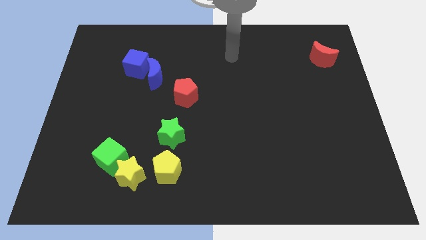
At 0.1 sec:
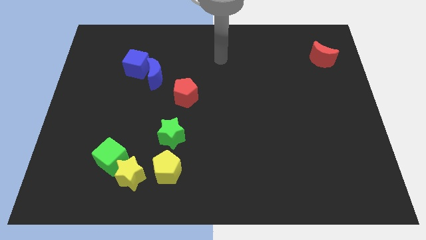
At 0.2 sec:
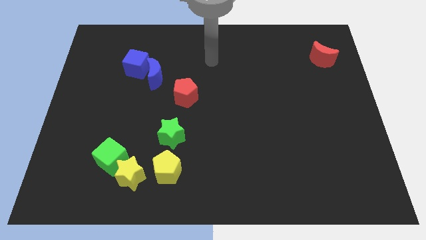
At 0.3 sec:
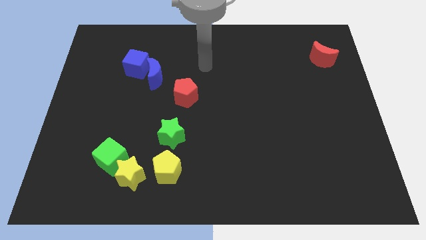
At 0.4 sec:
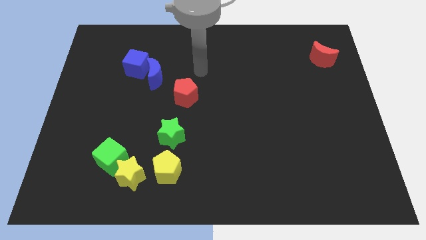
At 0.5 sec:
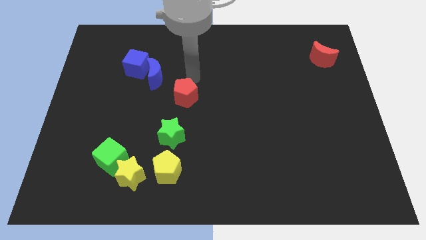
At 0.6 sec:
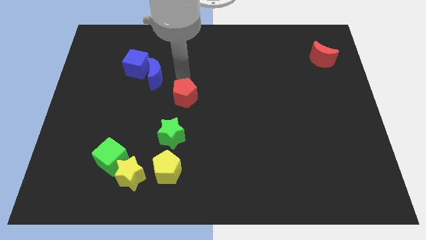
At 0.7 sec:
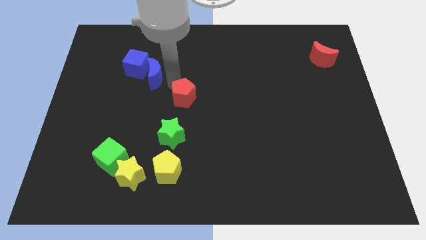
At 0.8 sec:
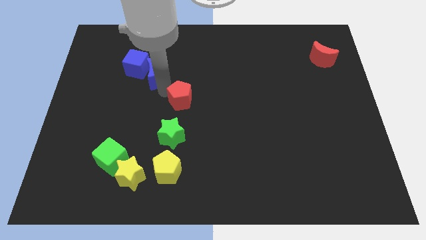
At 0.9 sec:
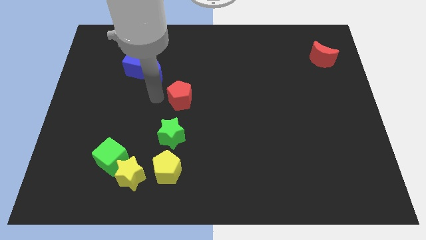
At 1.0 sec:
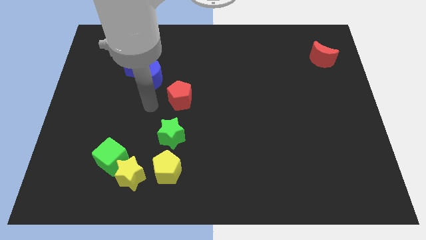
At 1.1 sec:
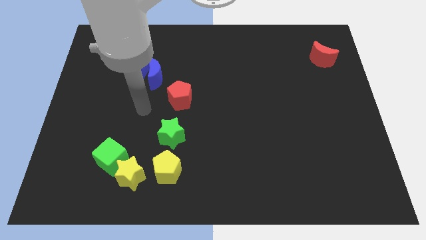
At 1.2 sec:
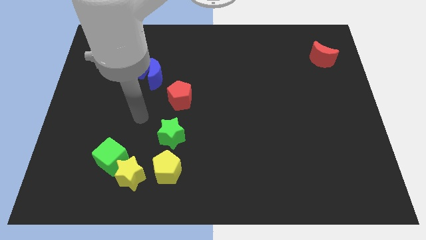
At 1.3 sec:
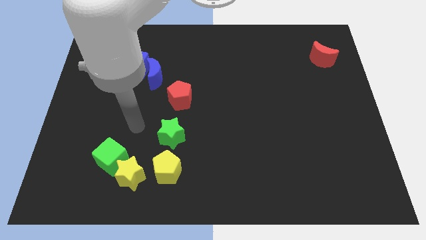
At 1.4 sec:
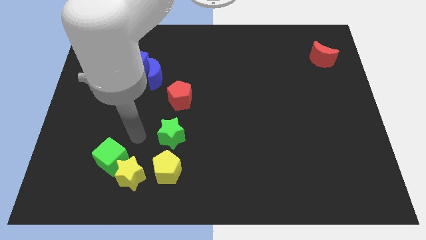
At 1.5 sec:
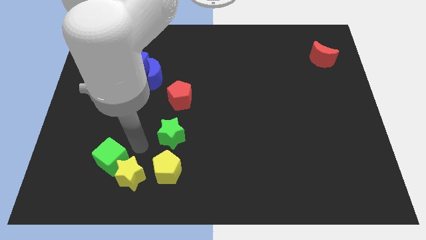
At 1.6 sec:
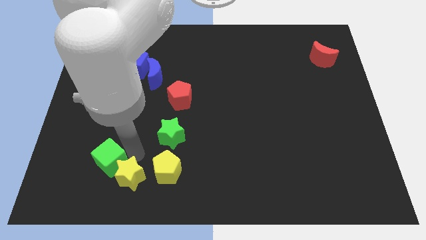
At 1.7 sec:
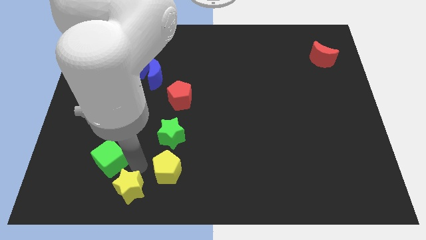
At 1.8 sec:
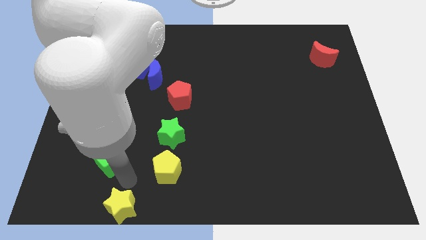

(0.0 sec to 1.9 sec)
move the green cube away from the yellow star

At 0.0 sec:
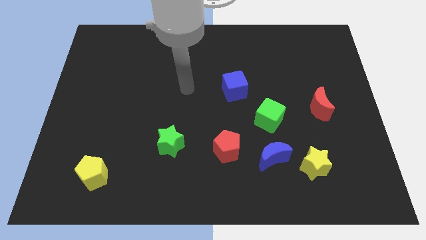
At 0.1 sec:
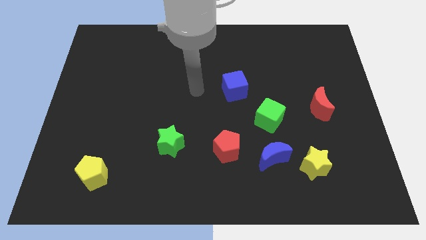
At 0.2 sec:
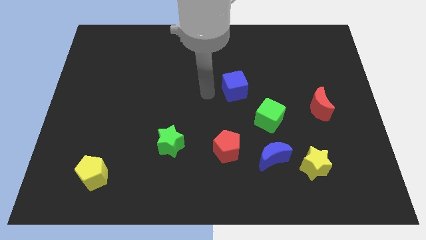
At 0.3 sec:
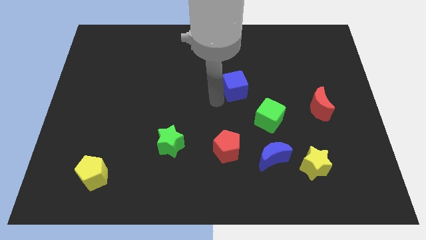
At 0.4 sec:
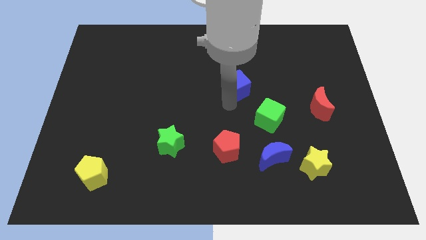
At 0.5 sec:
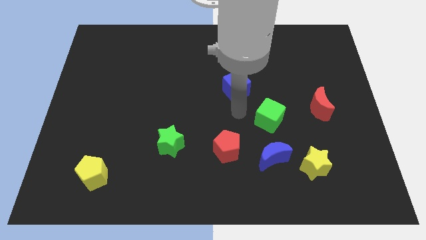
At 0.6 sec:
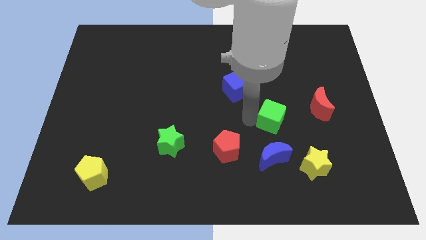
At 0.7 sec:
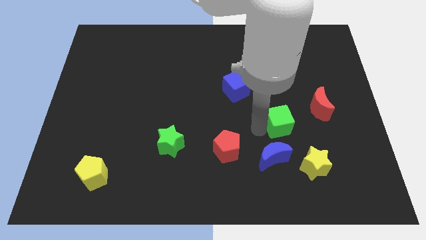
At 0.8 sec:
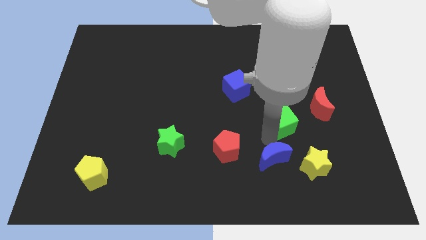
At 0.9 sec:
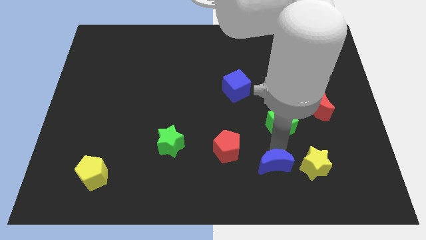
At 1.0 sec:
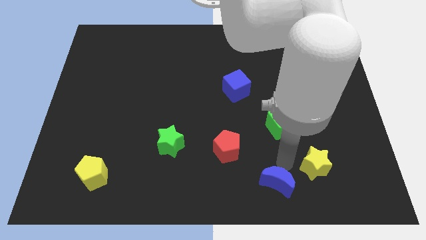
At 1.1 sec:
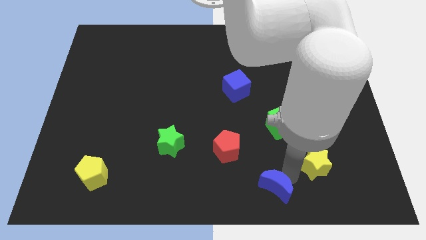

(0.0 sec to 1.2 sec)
pull the yellow star apart from the blue moon

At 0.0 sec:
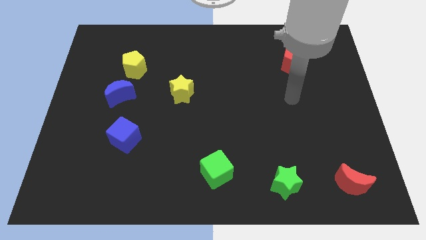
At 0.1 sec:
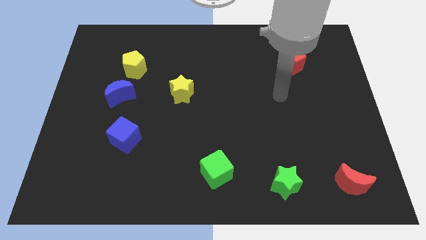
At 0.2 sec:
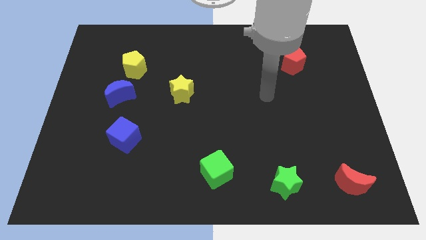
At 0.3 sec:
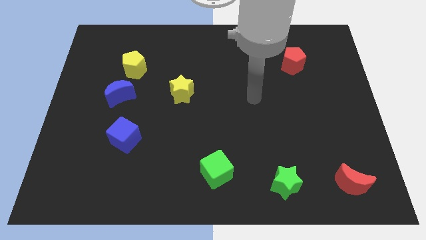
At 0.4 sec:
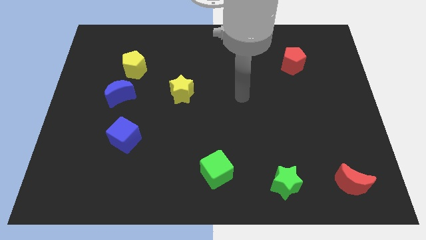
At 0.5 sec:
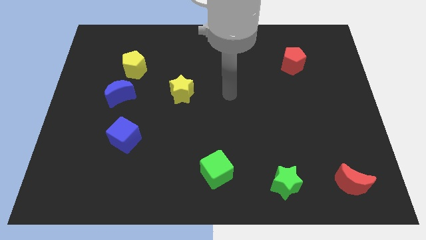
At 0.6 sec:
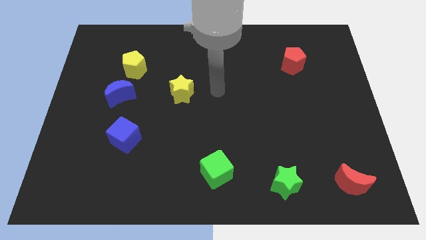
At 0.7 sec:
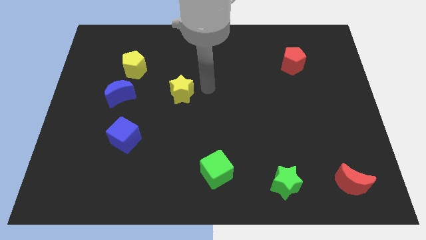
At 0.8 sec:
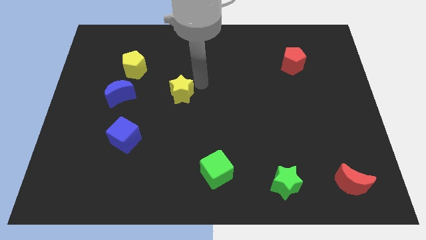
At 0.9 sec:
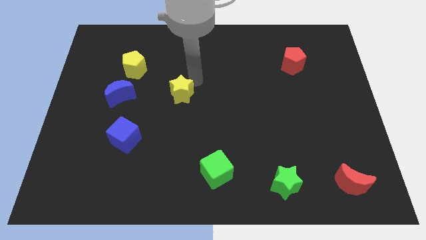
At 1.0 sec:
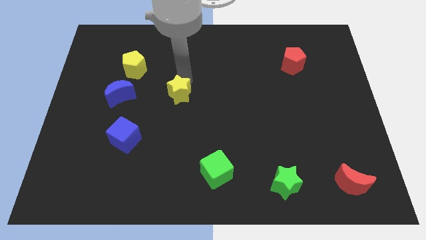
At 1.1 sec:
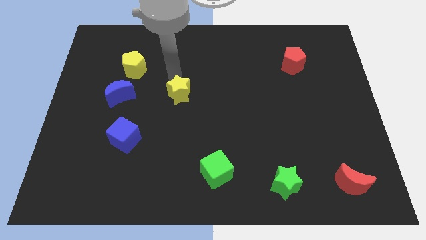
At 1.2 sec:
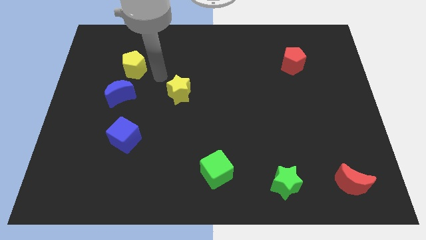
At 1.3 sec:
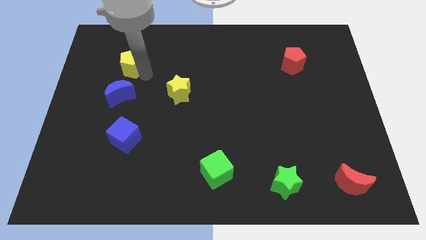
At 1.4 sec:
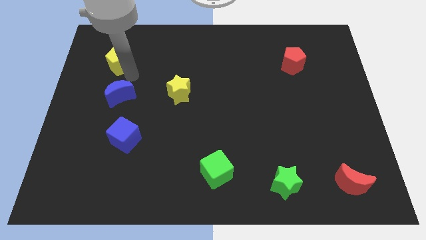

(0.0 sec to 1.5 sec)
pull the blue moon apart from the yellow pentagon

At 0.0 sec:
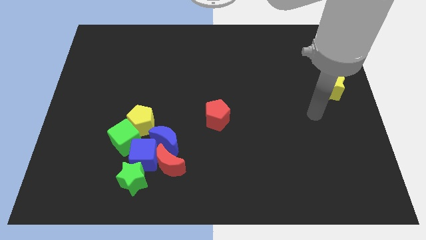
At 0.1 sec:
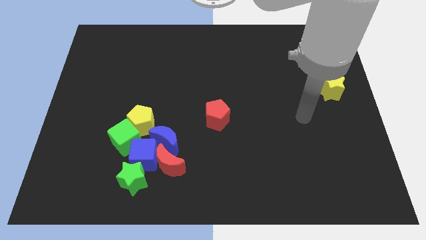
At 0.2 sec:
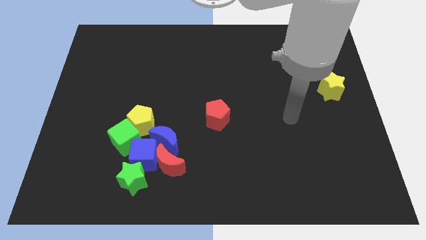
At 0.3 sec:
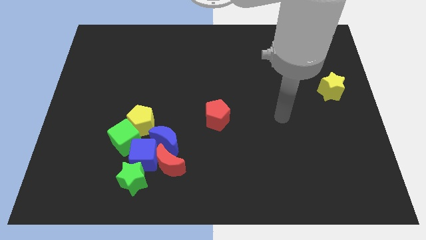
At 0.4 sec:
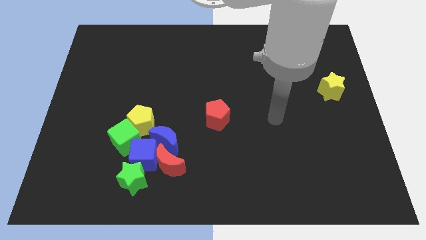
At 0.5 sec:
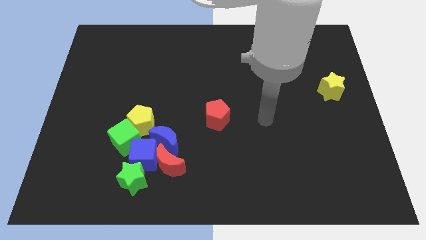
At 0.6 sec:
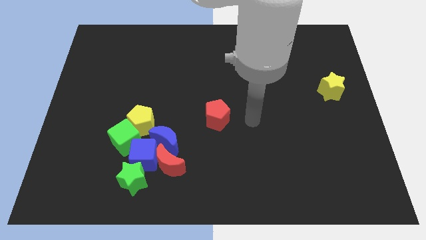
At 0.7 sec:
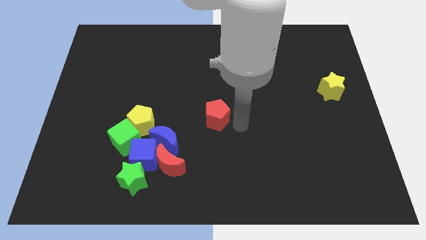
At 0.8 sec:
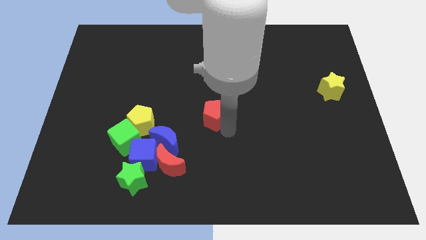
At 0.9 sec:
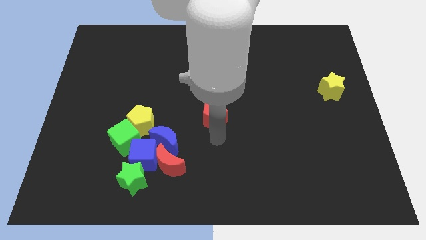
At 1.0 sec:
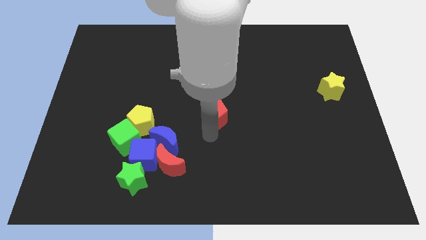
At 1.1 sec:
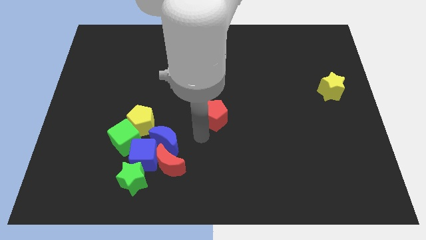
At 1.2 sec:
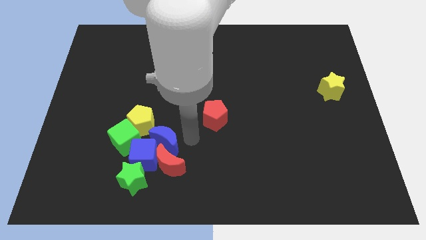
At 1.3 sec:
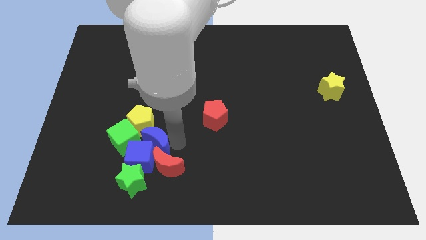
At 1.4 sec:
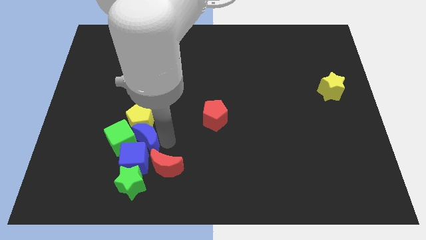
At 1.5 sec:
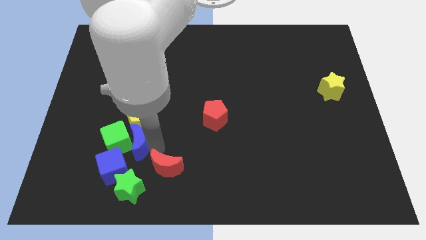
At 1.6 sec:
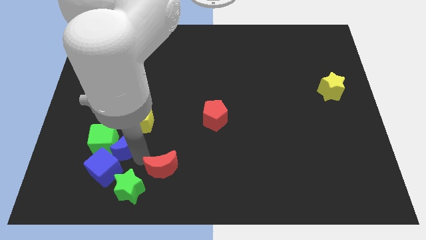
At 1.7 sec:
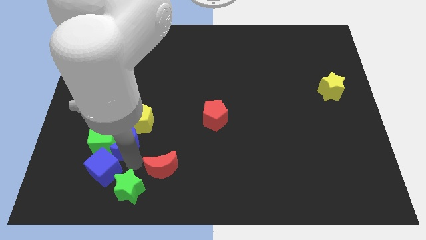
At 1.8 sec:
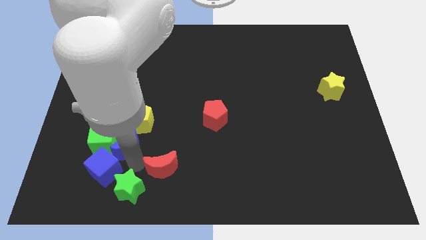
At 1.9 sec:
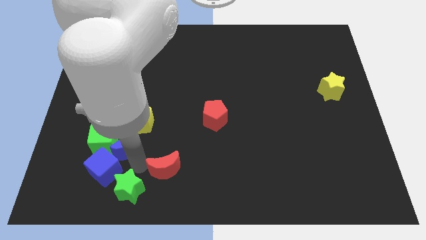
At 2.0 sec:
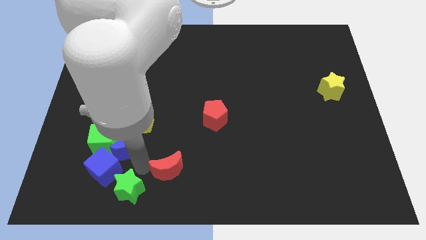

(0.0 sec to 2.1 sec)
separate the red moon from the group of blocks

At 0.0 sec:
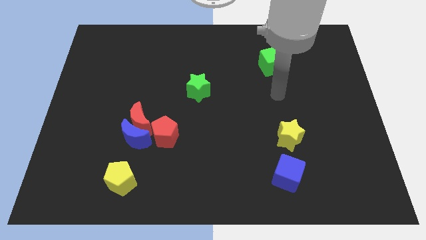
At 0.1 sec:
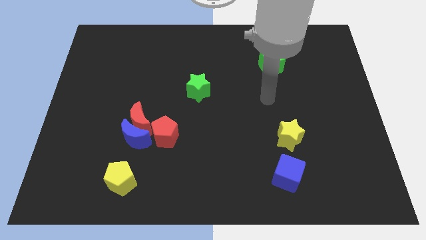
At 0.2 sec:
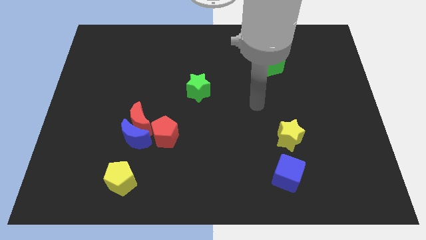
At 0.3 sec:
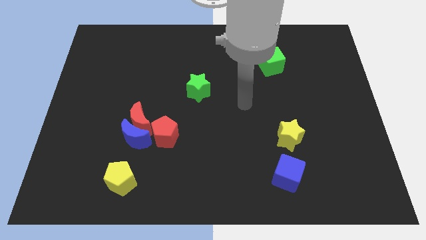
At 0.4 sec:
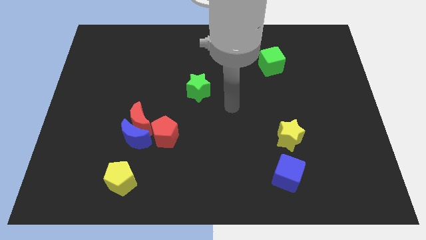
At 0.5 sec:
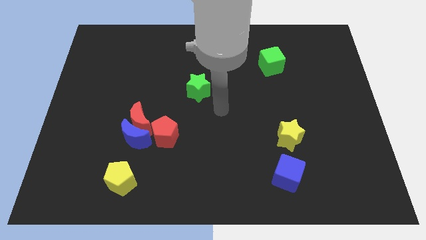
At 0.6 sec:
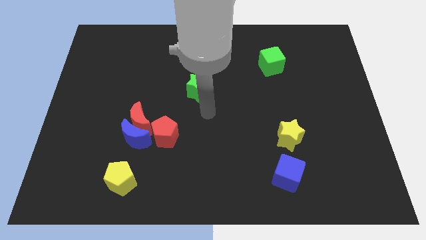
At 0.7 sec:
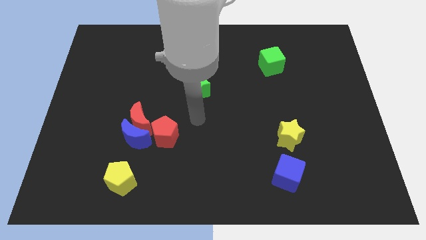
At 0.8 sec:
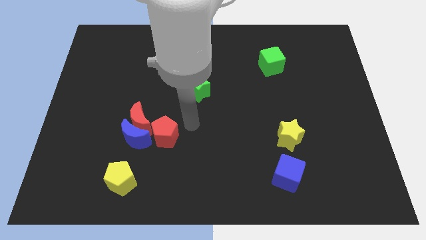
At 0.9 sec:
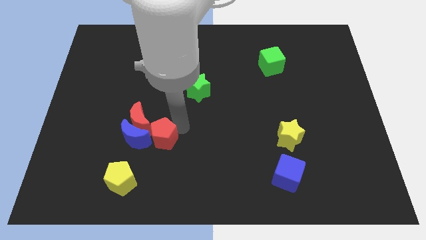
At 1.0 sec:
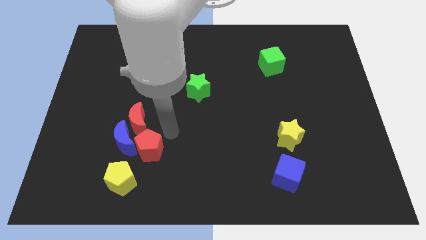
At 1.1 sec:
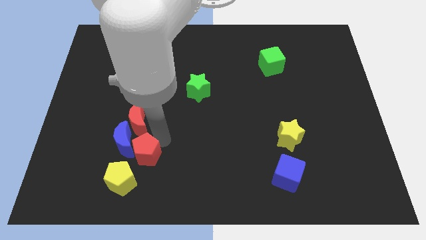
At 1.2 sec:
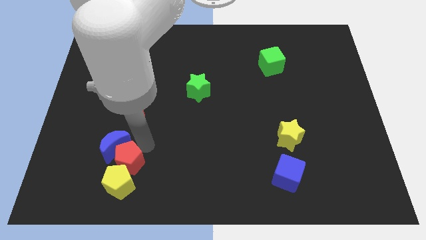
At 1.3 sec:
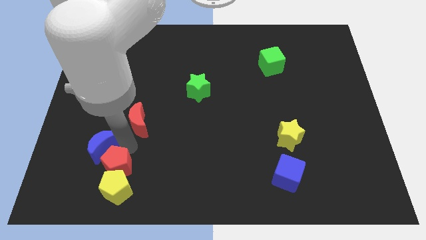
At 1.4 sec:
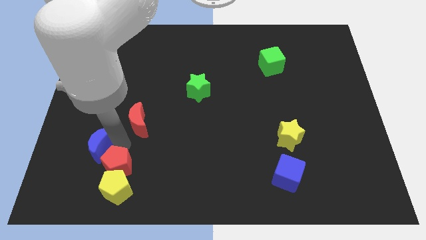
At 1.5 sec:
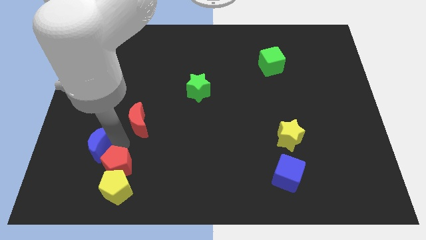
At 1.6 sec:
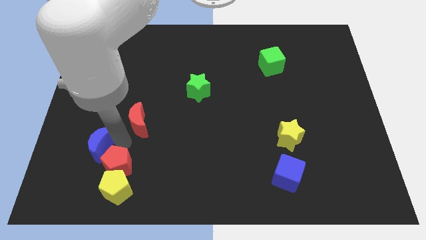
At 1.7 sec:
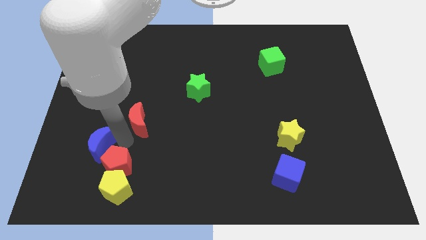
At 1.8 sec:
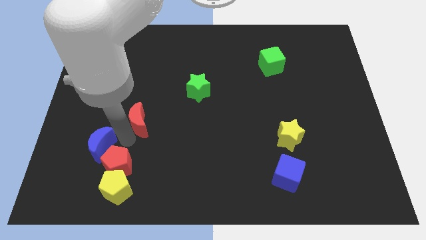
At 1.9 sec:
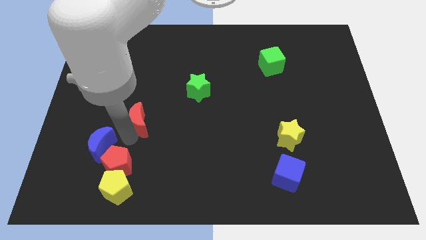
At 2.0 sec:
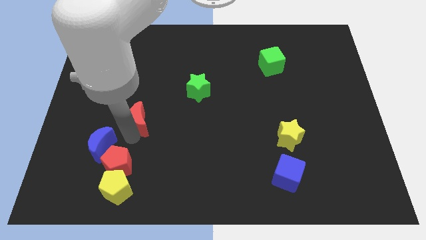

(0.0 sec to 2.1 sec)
pull the red moon apart from the blue moon and red pentagon

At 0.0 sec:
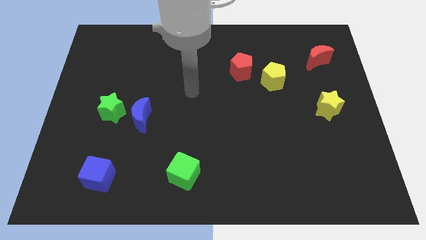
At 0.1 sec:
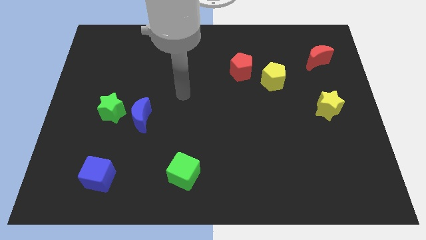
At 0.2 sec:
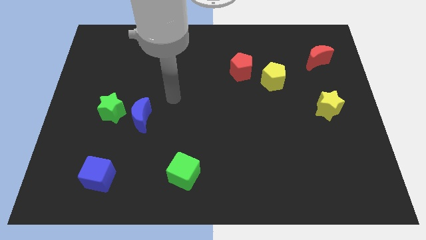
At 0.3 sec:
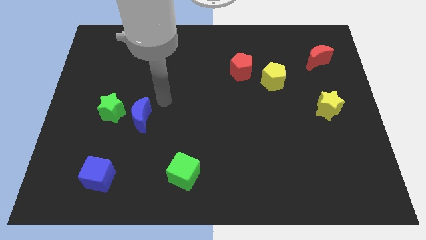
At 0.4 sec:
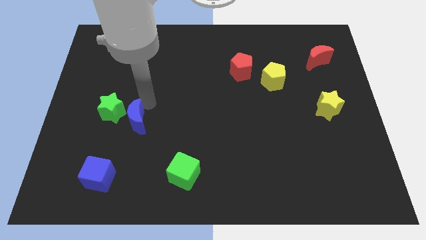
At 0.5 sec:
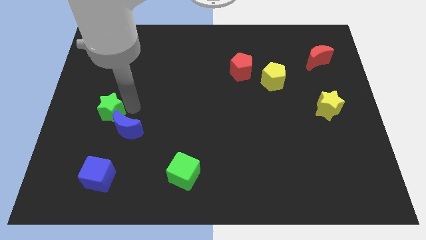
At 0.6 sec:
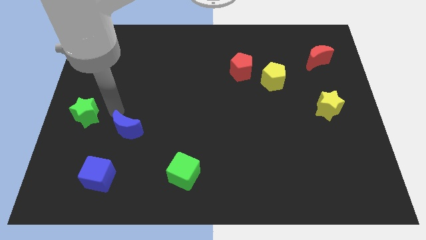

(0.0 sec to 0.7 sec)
move the blue moon away from the green star
